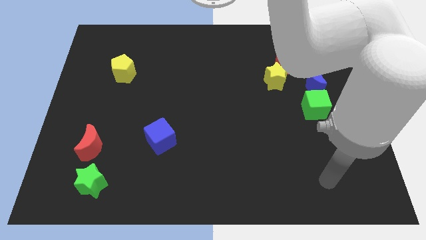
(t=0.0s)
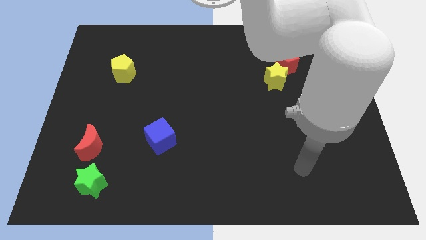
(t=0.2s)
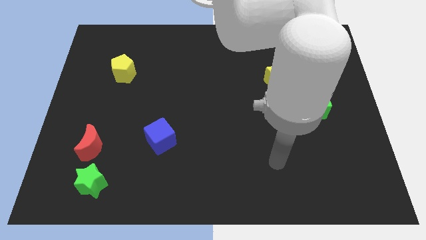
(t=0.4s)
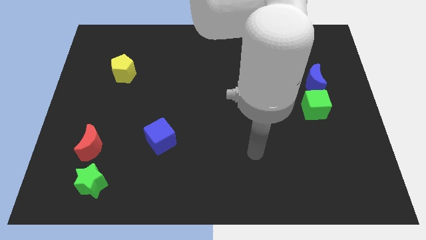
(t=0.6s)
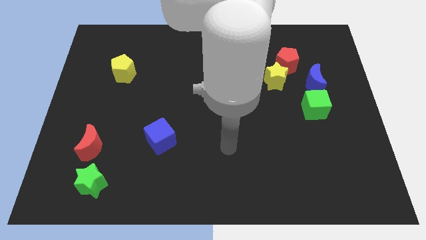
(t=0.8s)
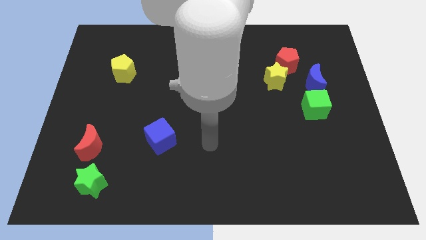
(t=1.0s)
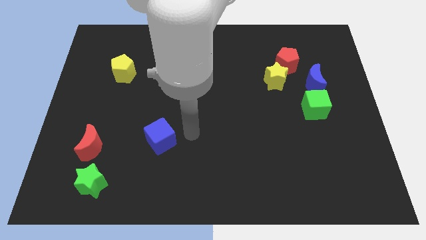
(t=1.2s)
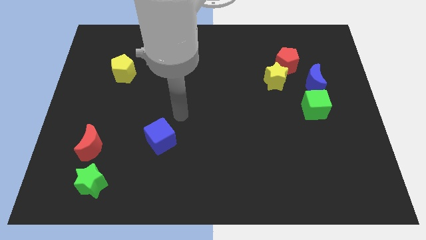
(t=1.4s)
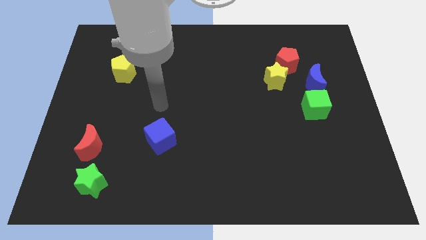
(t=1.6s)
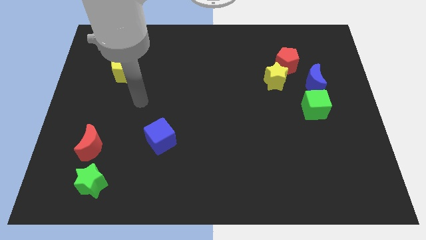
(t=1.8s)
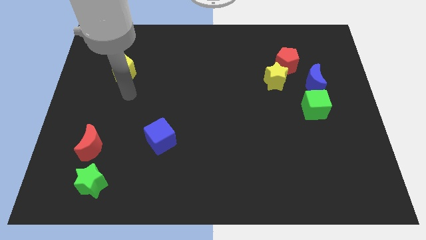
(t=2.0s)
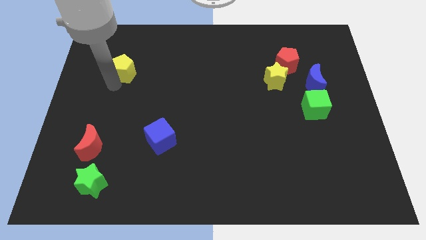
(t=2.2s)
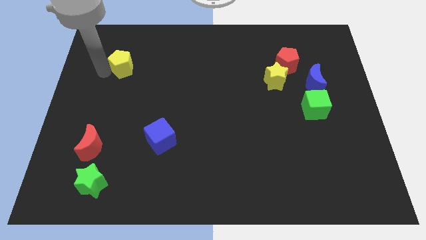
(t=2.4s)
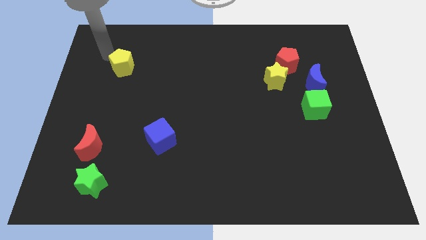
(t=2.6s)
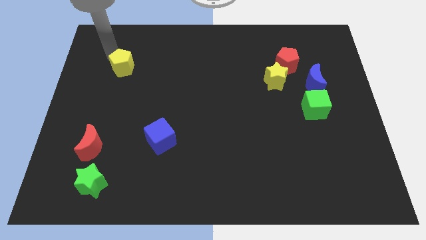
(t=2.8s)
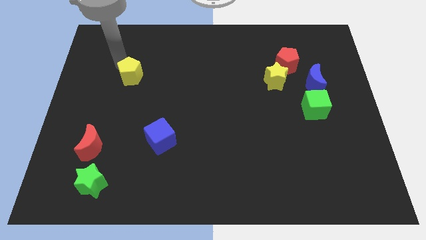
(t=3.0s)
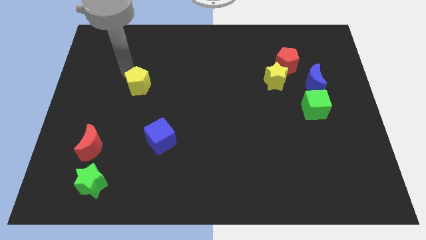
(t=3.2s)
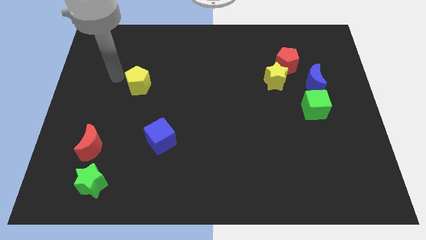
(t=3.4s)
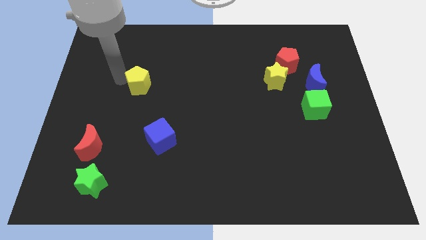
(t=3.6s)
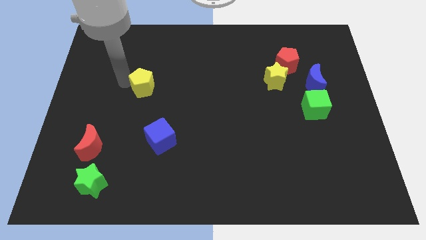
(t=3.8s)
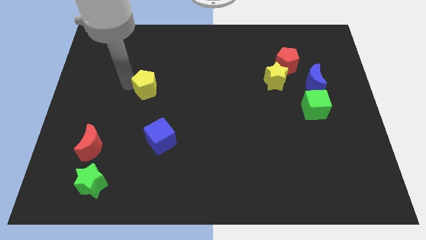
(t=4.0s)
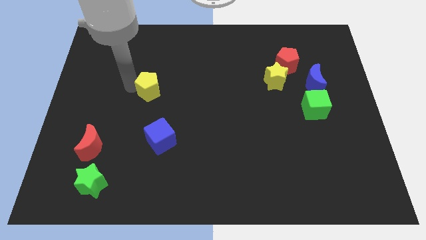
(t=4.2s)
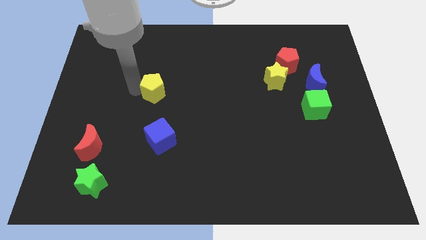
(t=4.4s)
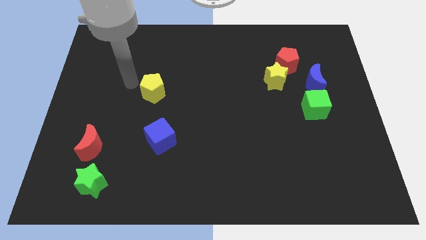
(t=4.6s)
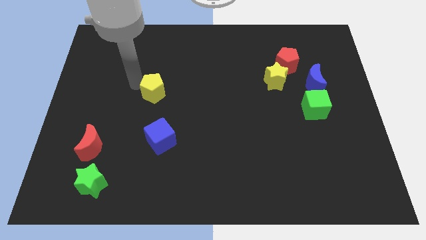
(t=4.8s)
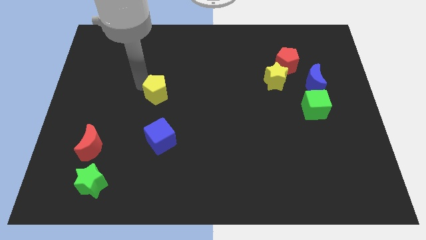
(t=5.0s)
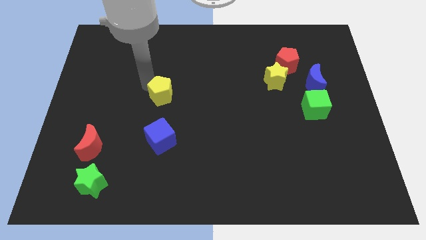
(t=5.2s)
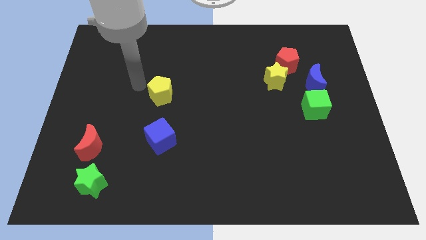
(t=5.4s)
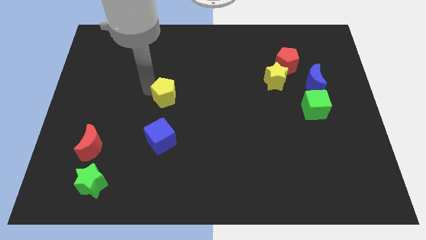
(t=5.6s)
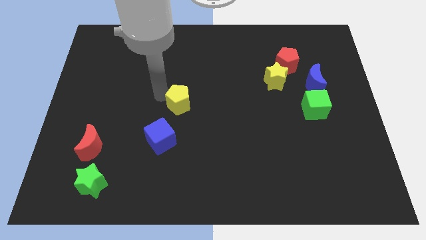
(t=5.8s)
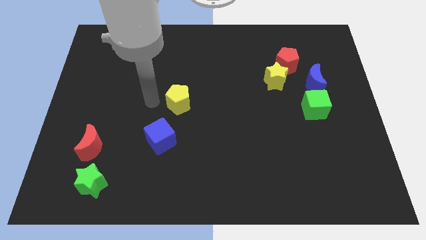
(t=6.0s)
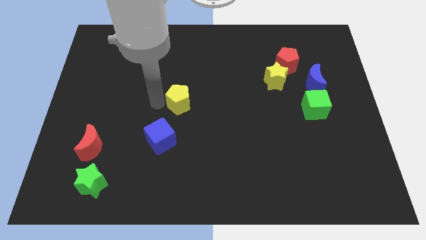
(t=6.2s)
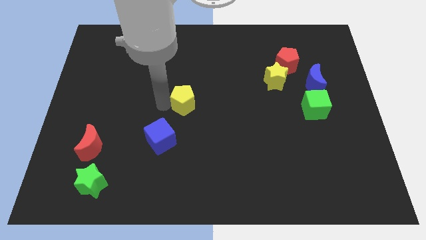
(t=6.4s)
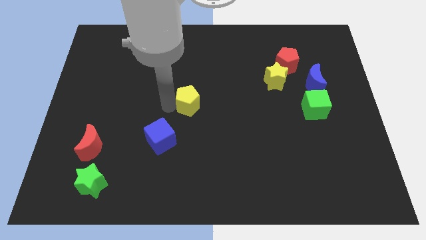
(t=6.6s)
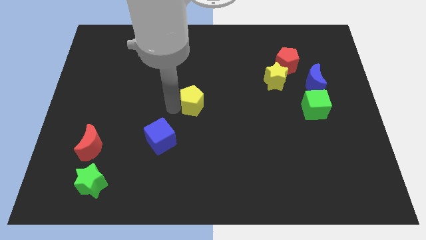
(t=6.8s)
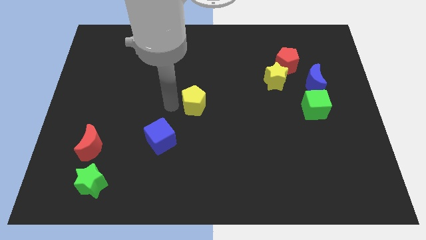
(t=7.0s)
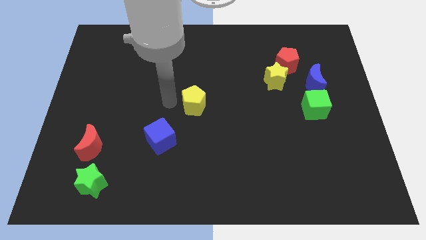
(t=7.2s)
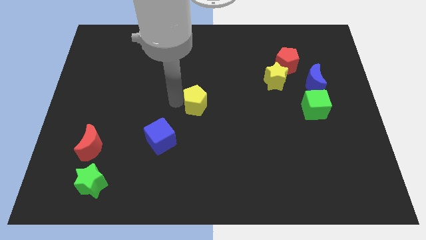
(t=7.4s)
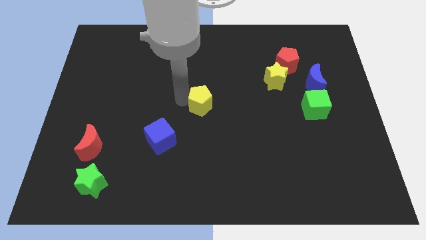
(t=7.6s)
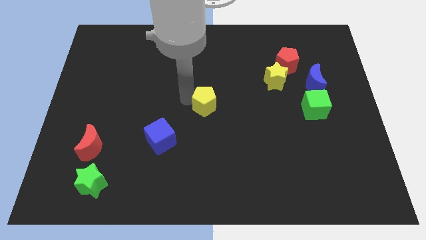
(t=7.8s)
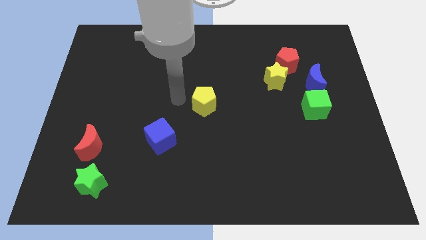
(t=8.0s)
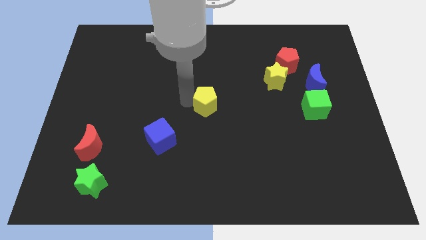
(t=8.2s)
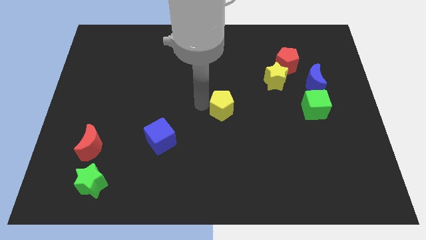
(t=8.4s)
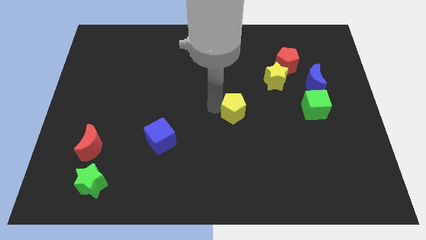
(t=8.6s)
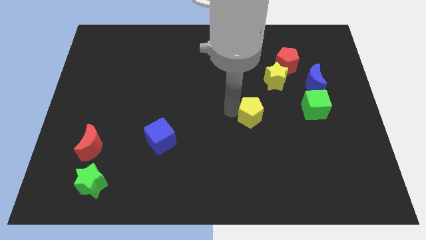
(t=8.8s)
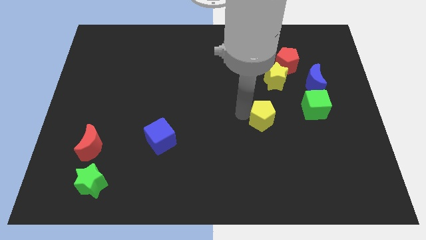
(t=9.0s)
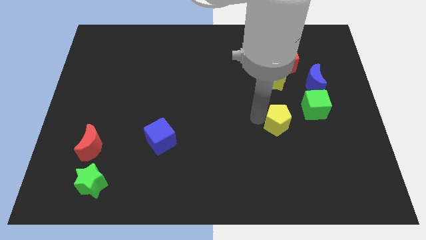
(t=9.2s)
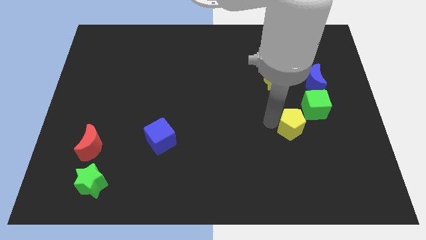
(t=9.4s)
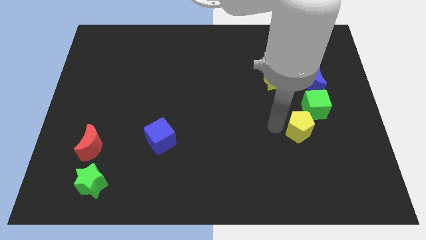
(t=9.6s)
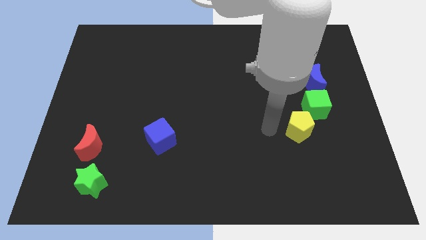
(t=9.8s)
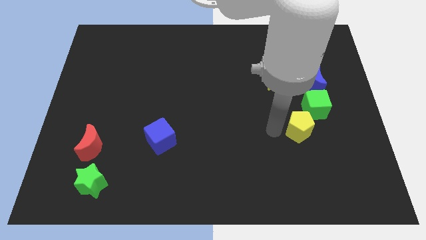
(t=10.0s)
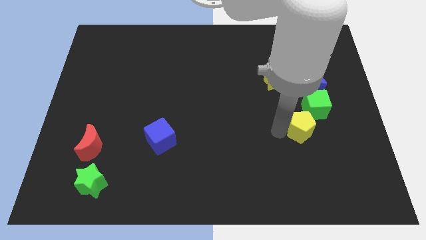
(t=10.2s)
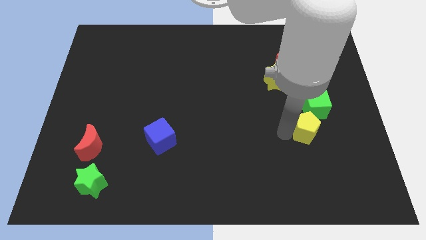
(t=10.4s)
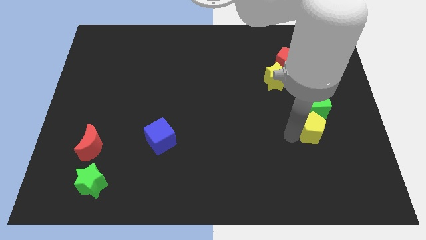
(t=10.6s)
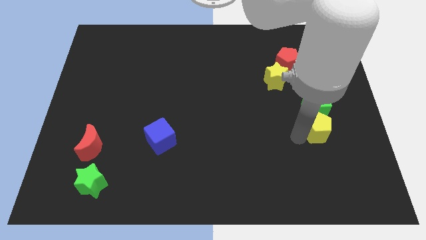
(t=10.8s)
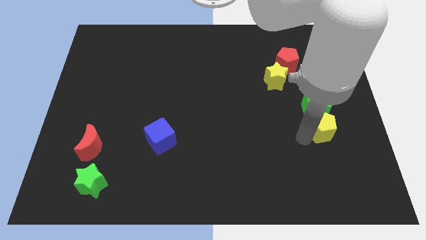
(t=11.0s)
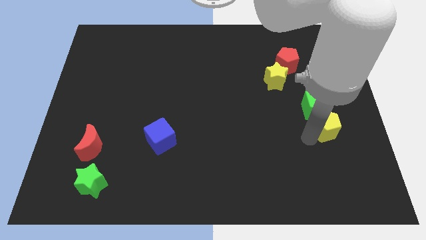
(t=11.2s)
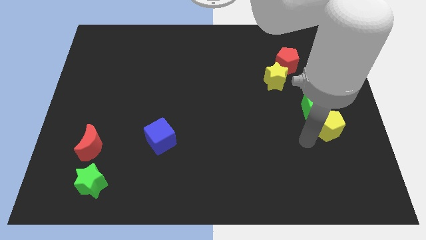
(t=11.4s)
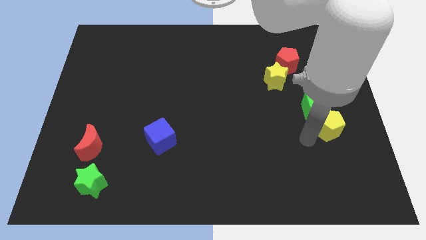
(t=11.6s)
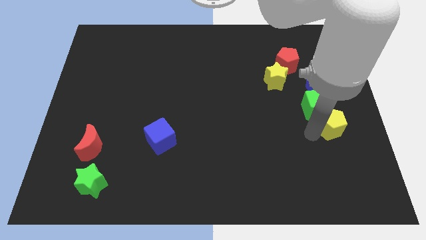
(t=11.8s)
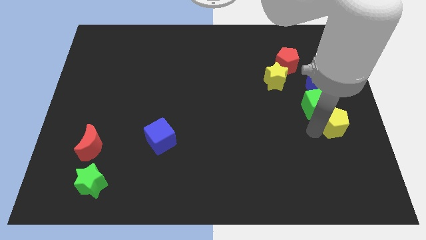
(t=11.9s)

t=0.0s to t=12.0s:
slide the yellow pentagon to the center right

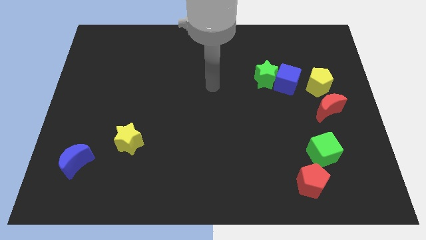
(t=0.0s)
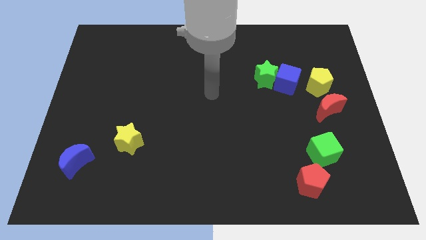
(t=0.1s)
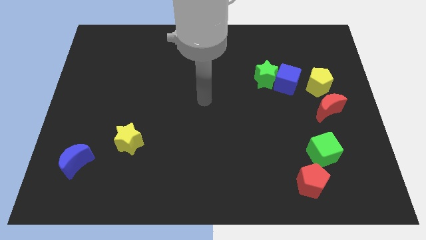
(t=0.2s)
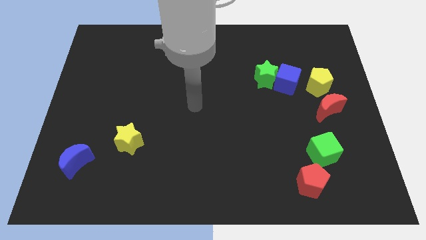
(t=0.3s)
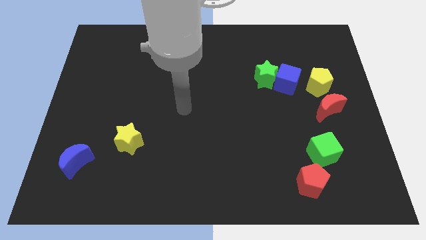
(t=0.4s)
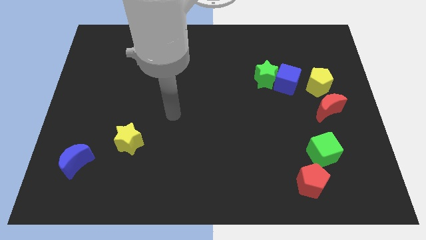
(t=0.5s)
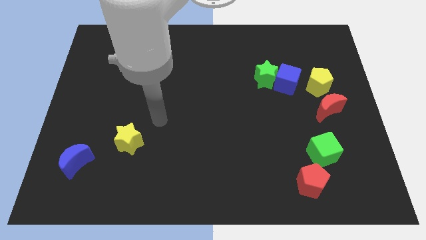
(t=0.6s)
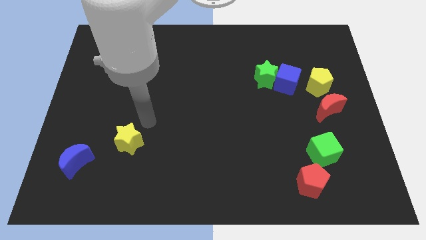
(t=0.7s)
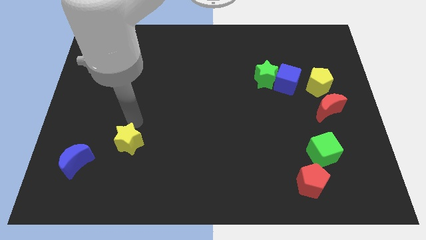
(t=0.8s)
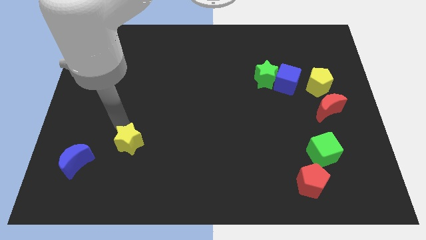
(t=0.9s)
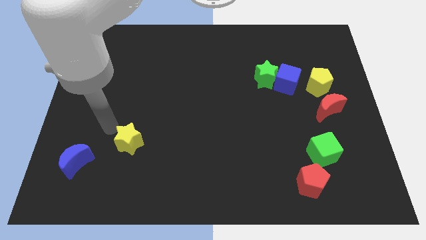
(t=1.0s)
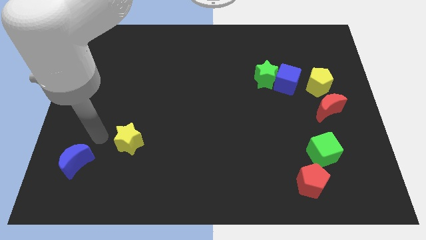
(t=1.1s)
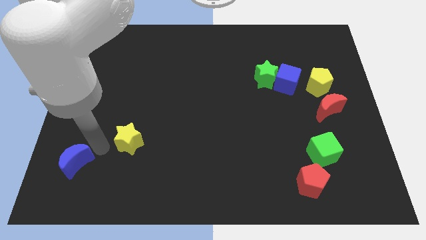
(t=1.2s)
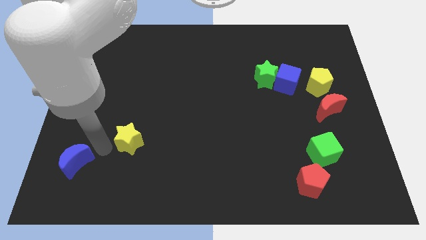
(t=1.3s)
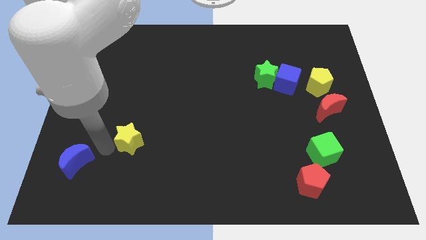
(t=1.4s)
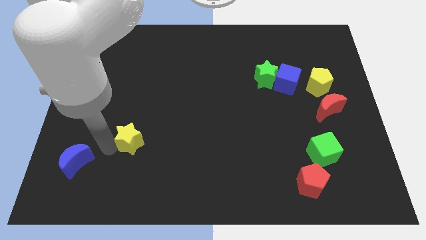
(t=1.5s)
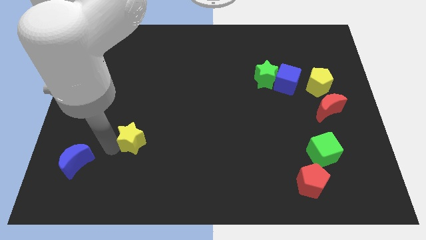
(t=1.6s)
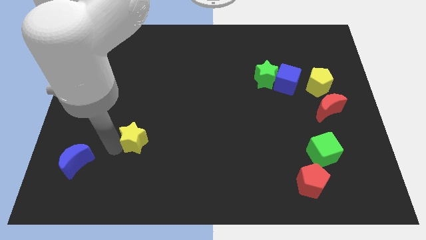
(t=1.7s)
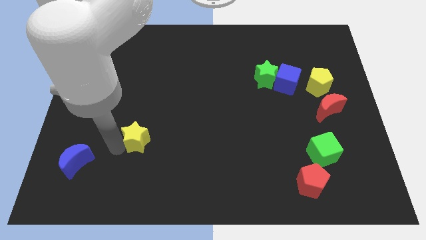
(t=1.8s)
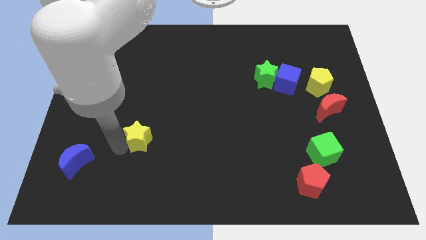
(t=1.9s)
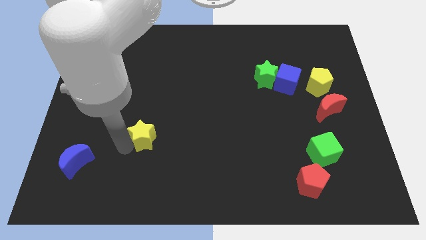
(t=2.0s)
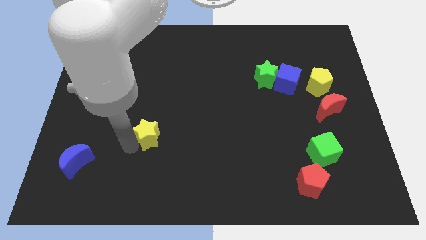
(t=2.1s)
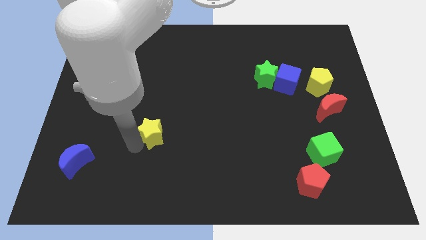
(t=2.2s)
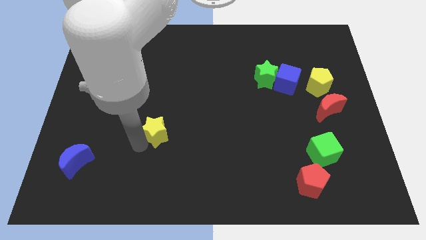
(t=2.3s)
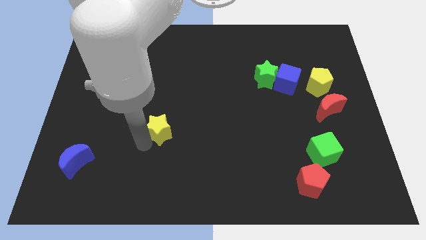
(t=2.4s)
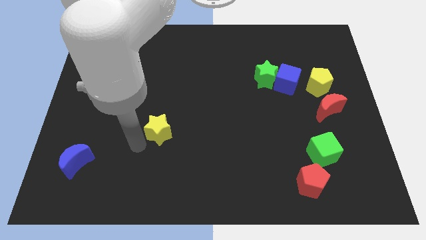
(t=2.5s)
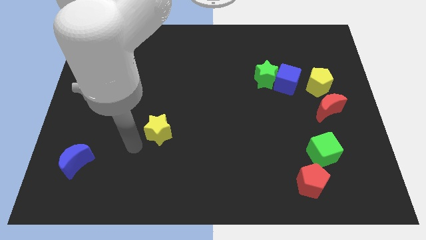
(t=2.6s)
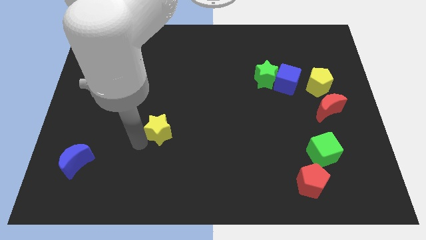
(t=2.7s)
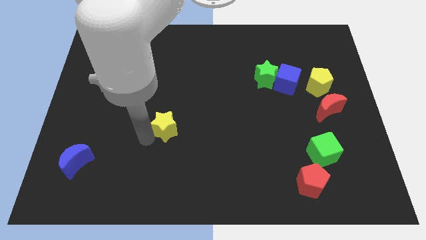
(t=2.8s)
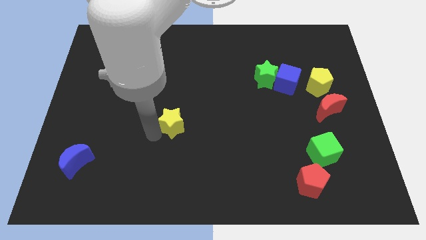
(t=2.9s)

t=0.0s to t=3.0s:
put the yellow star to the middle
